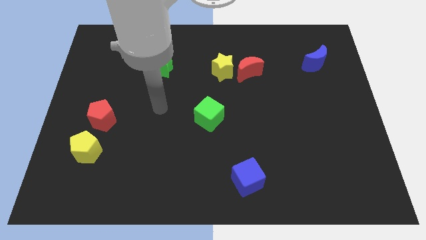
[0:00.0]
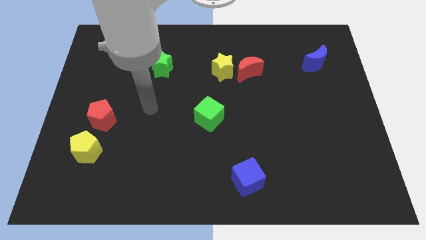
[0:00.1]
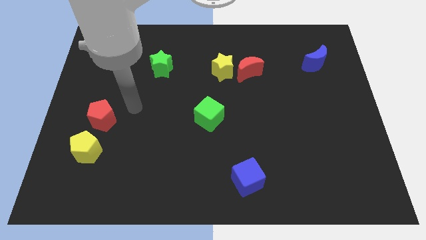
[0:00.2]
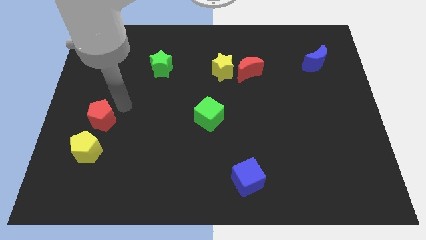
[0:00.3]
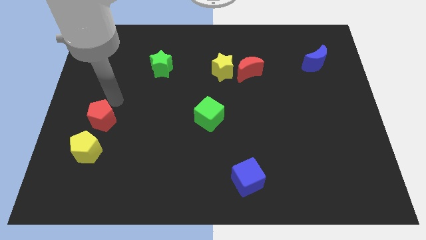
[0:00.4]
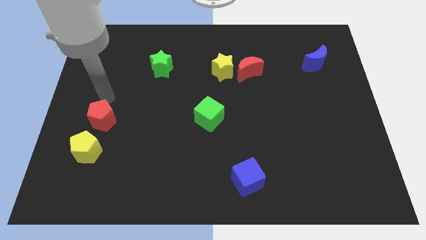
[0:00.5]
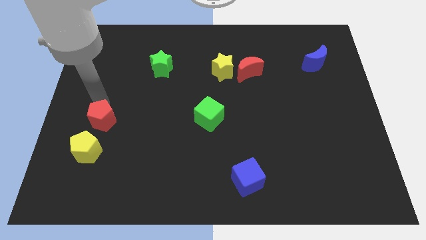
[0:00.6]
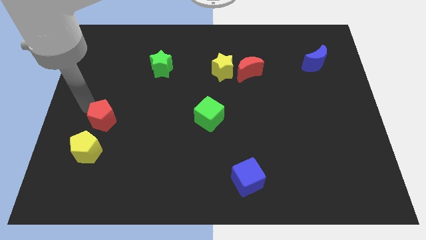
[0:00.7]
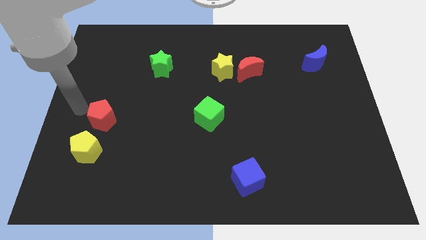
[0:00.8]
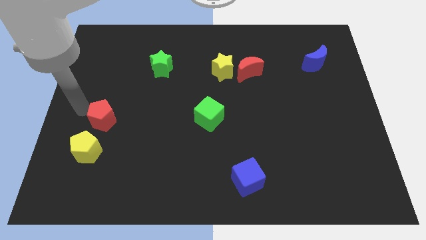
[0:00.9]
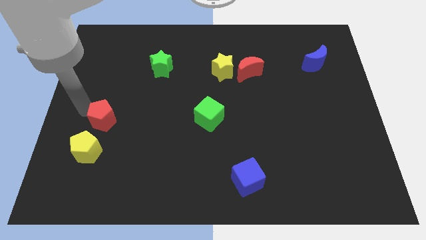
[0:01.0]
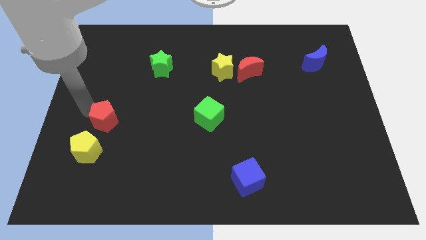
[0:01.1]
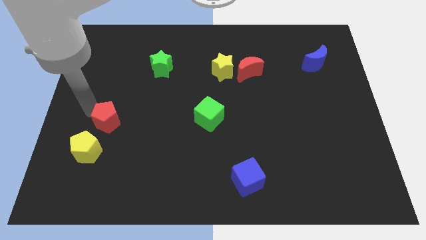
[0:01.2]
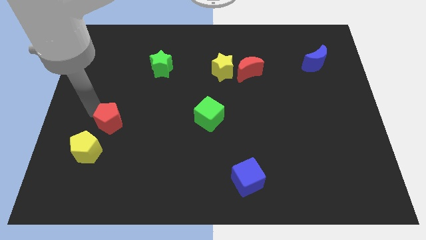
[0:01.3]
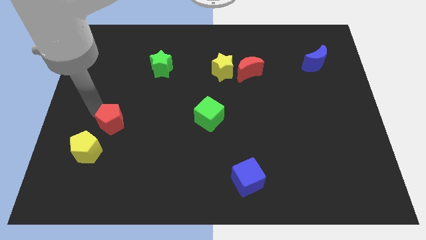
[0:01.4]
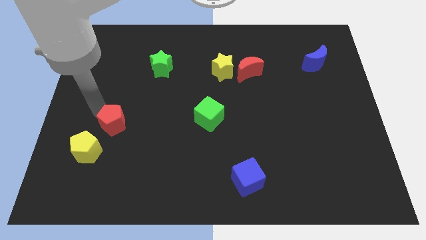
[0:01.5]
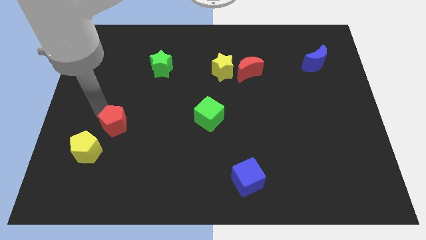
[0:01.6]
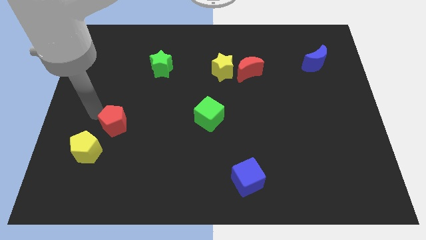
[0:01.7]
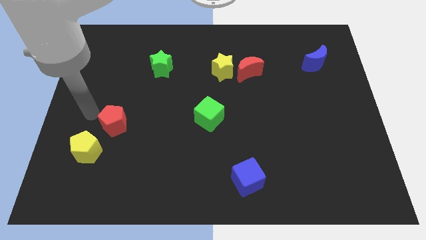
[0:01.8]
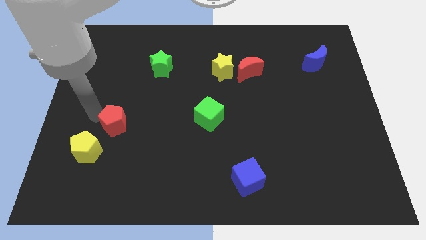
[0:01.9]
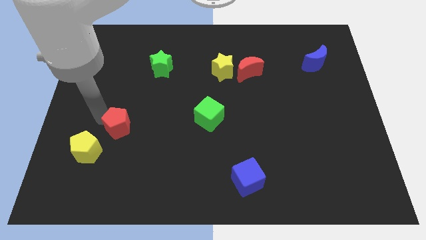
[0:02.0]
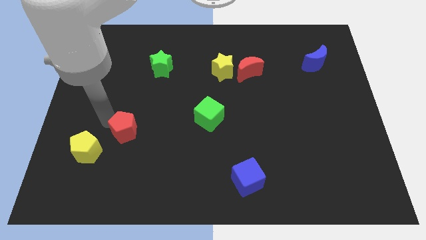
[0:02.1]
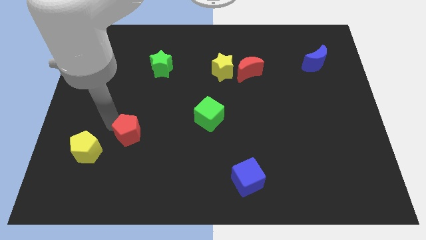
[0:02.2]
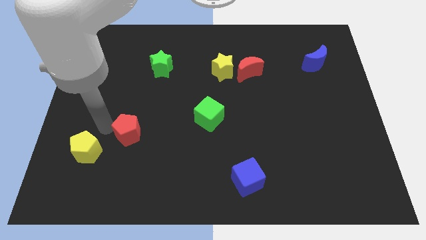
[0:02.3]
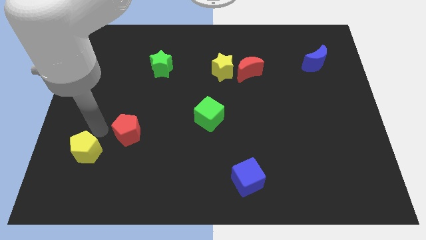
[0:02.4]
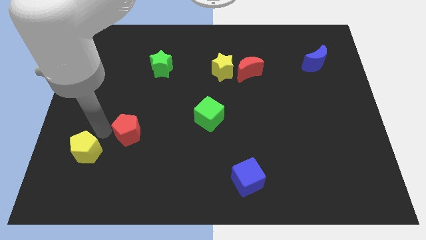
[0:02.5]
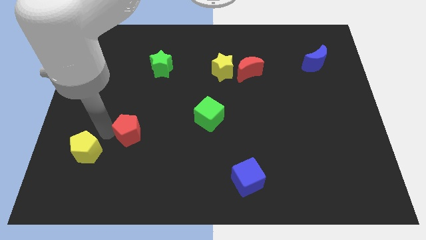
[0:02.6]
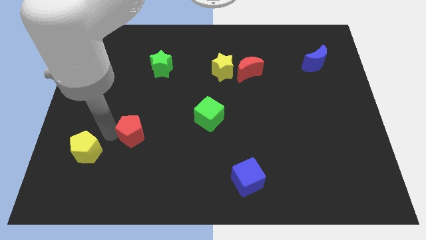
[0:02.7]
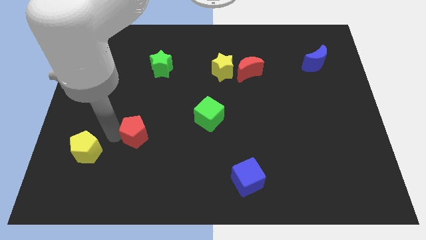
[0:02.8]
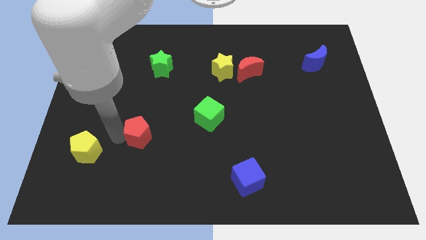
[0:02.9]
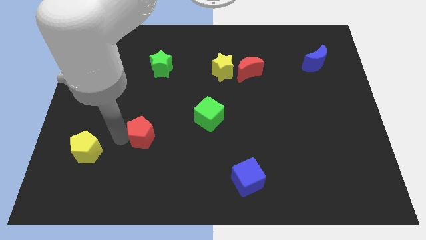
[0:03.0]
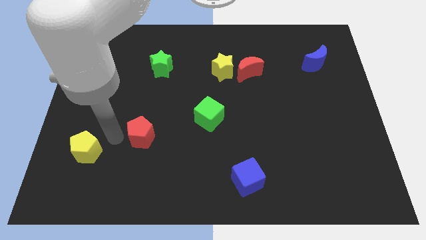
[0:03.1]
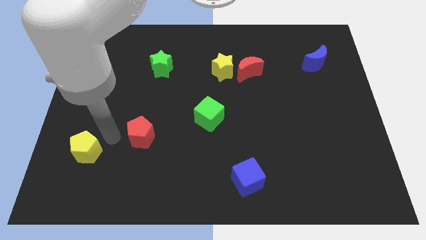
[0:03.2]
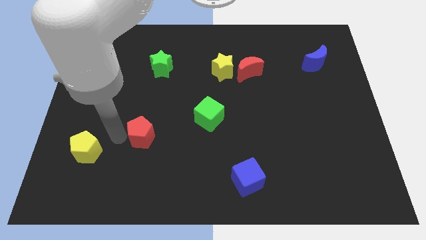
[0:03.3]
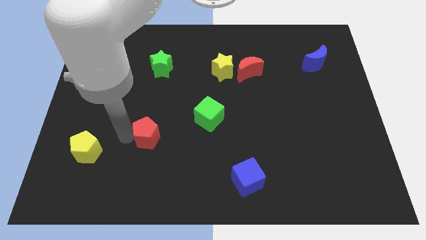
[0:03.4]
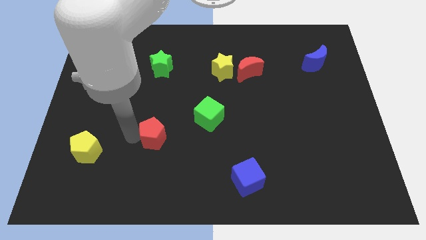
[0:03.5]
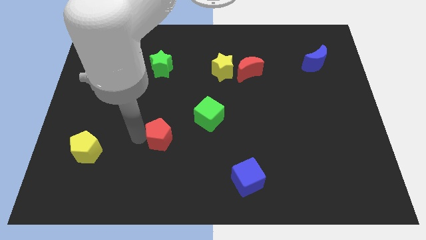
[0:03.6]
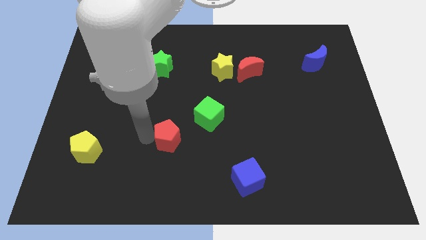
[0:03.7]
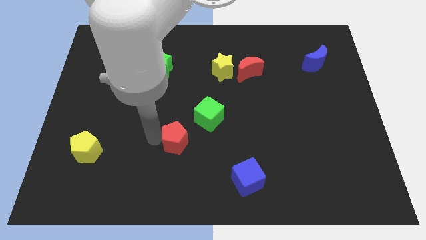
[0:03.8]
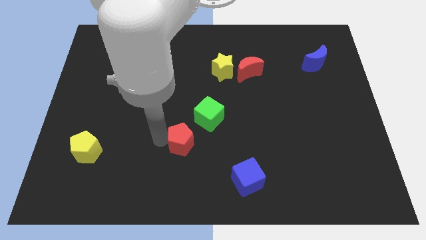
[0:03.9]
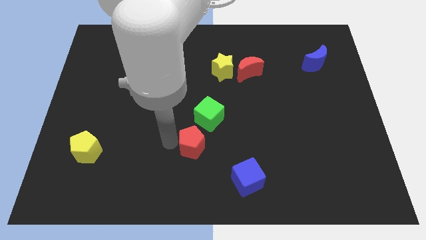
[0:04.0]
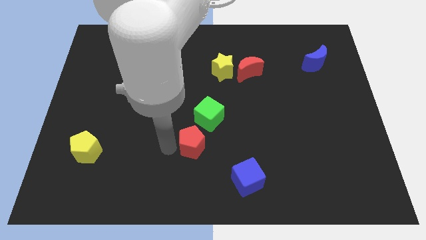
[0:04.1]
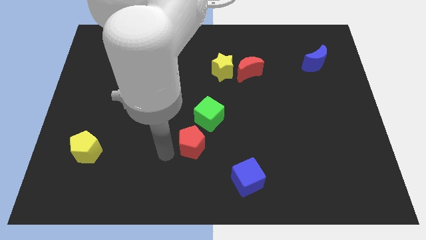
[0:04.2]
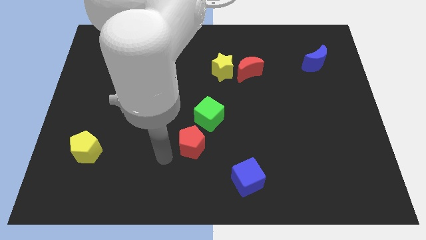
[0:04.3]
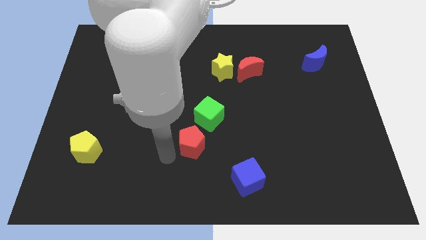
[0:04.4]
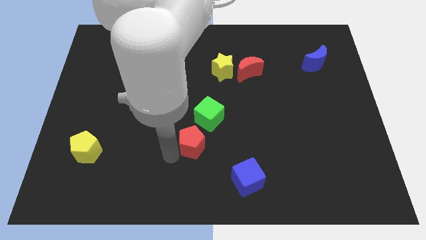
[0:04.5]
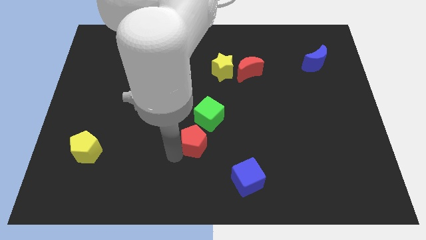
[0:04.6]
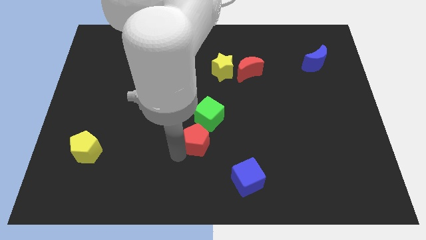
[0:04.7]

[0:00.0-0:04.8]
move the red pentagon right

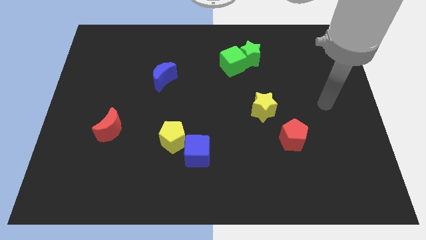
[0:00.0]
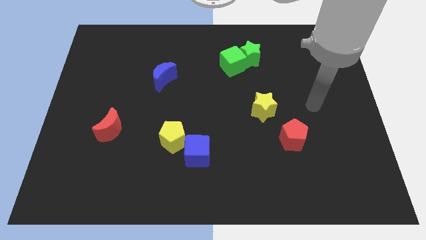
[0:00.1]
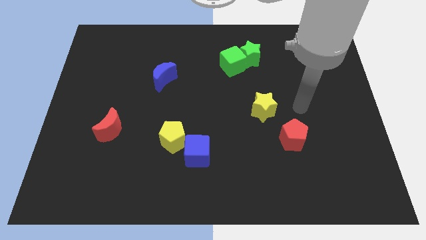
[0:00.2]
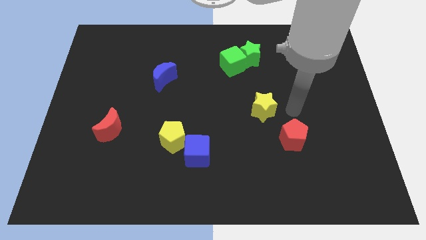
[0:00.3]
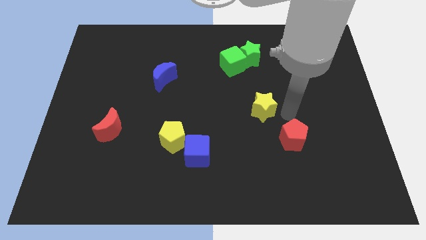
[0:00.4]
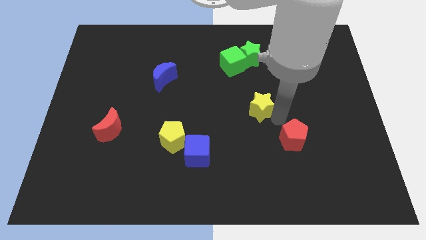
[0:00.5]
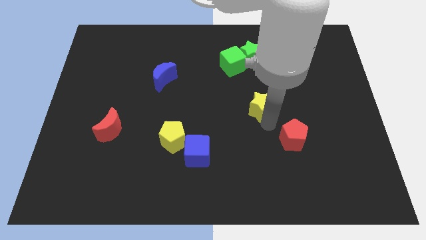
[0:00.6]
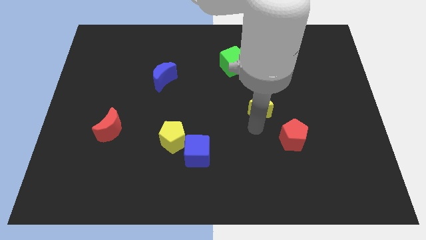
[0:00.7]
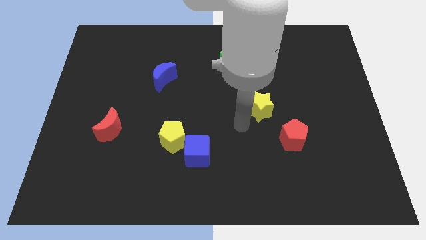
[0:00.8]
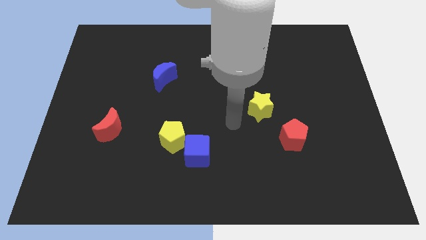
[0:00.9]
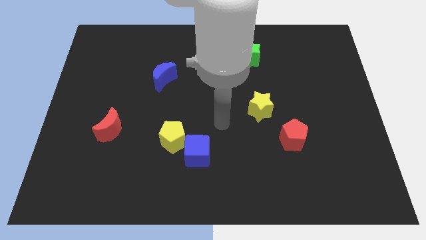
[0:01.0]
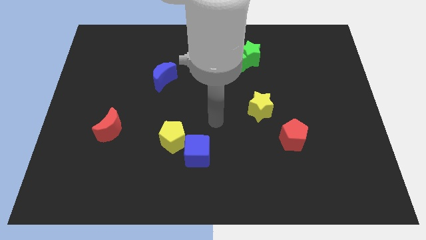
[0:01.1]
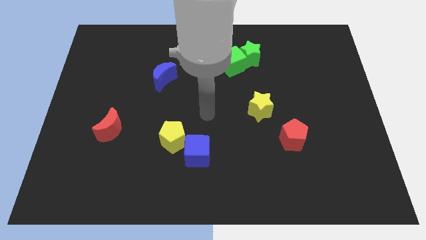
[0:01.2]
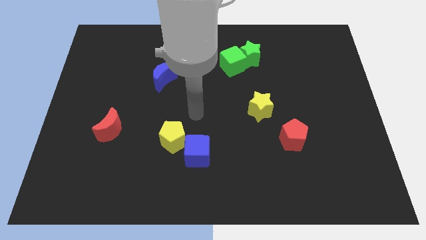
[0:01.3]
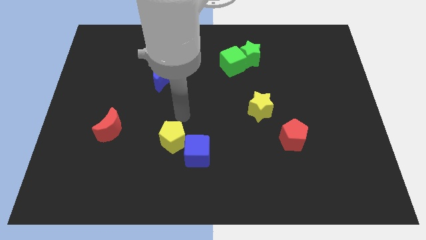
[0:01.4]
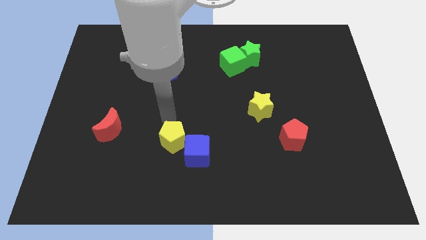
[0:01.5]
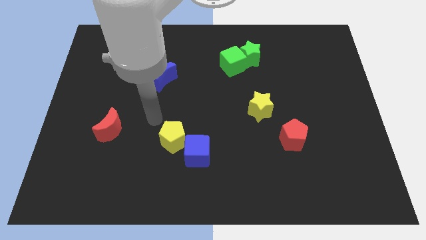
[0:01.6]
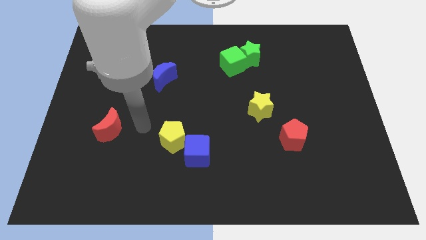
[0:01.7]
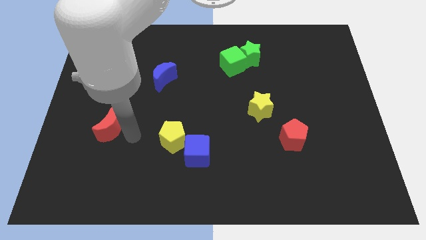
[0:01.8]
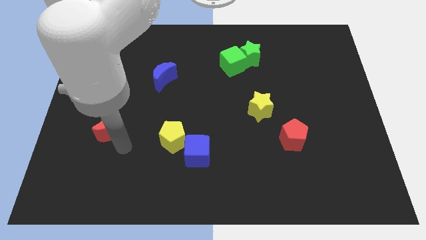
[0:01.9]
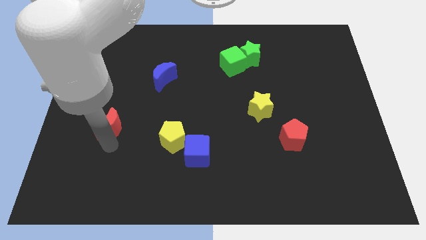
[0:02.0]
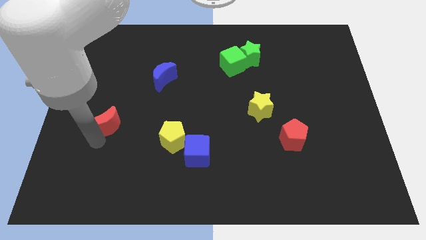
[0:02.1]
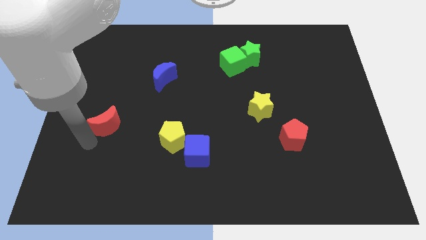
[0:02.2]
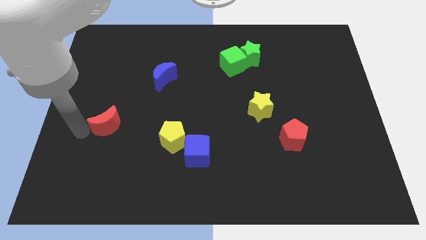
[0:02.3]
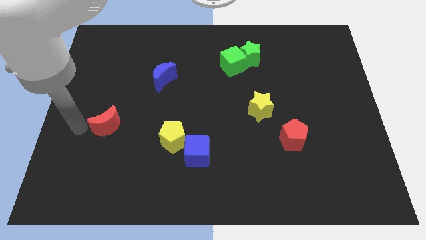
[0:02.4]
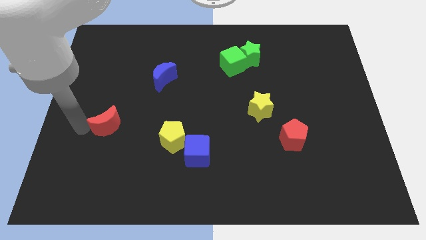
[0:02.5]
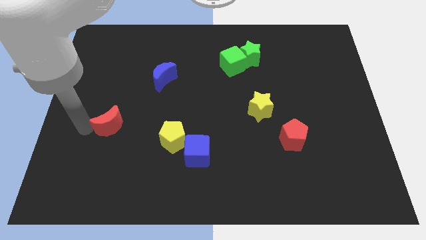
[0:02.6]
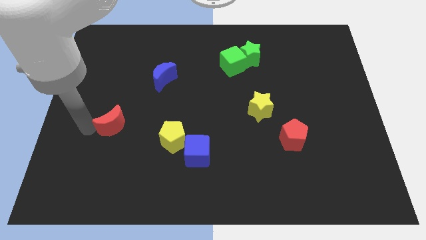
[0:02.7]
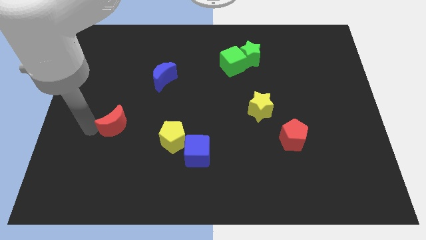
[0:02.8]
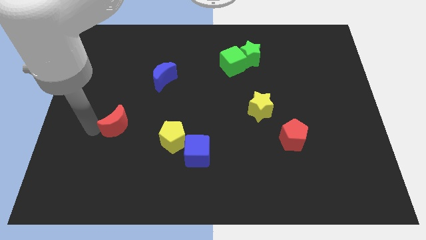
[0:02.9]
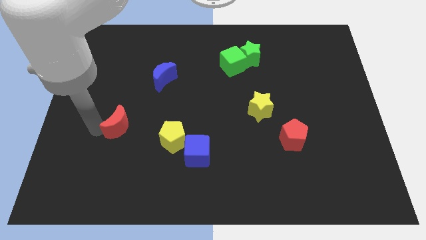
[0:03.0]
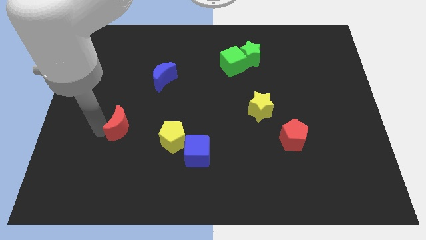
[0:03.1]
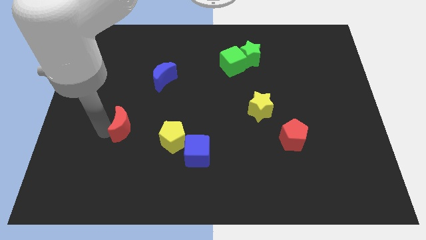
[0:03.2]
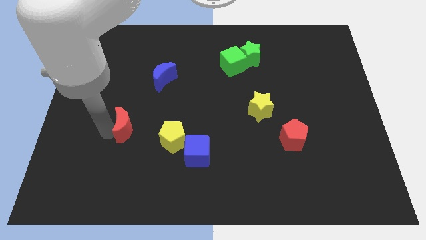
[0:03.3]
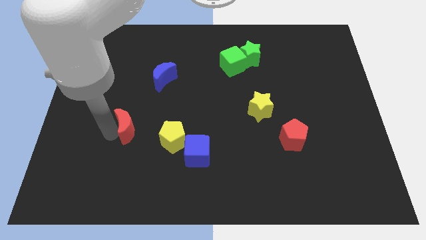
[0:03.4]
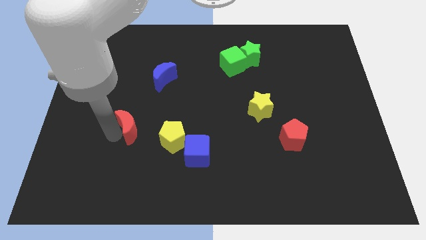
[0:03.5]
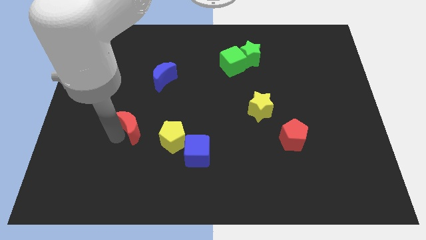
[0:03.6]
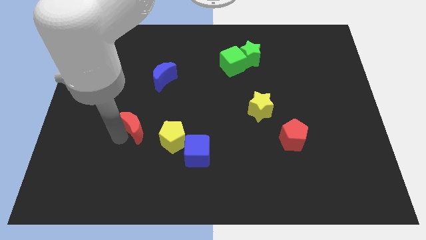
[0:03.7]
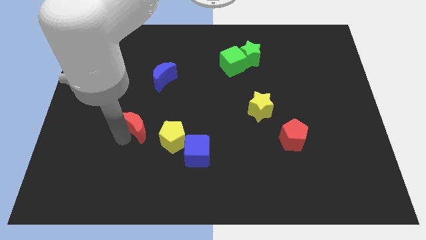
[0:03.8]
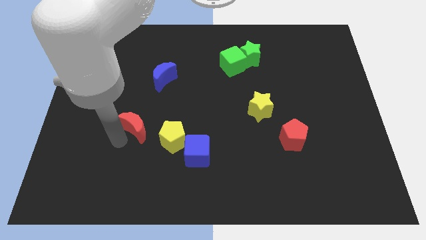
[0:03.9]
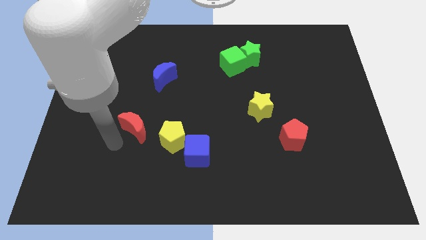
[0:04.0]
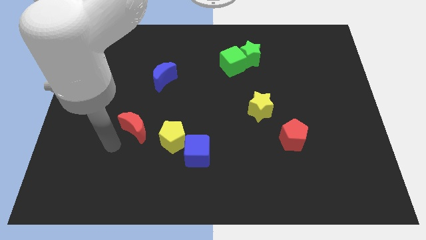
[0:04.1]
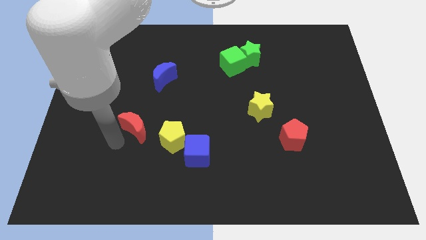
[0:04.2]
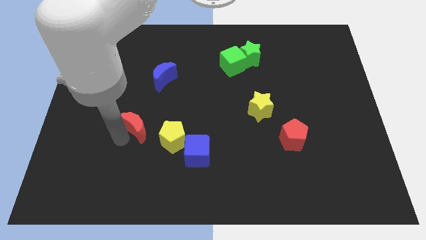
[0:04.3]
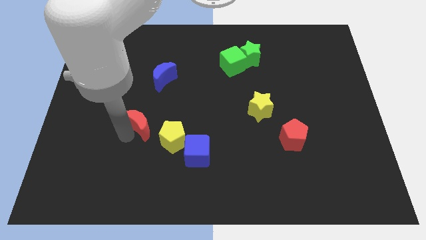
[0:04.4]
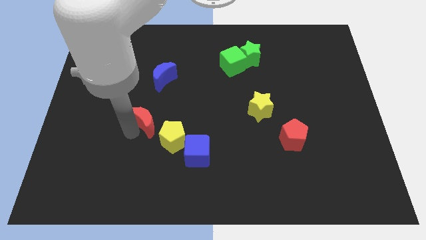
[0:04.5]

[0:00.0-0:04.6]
push the red moon a little to the right
